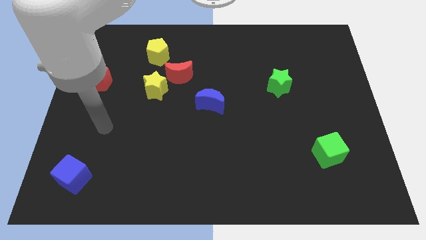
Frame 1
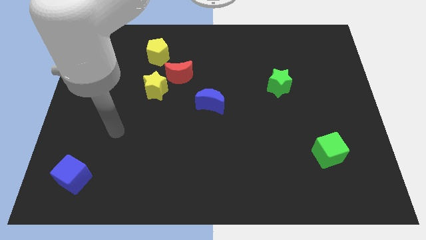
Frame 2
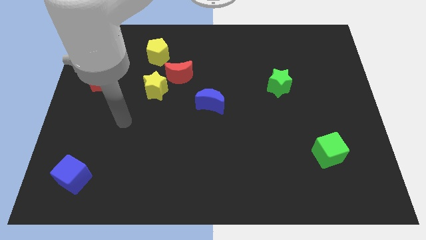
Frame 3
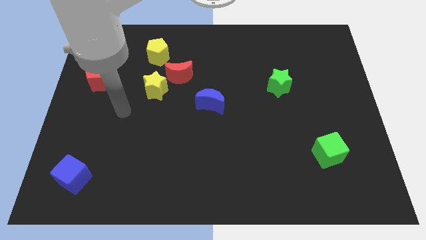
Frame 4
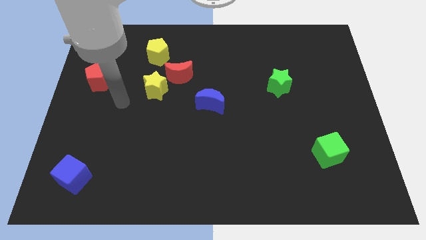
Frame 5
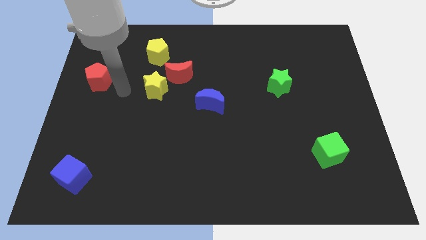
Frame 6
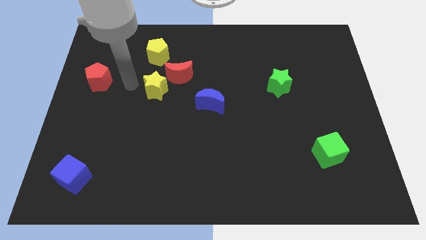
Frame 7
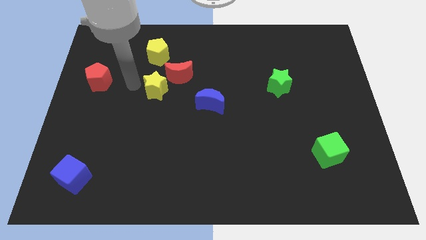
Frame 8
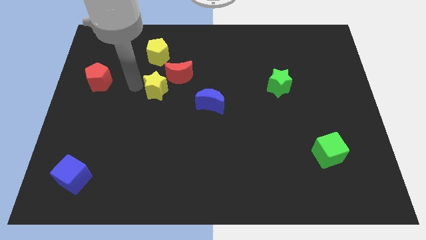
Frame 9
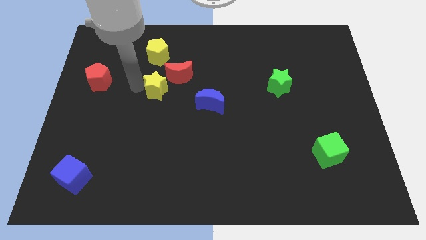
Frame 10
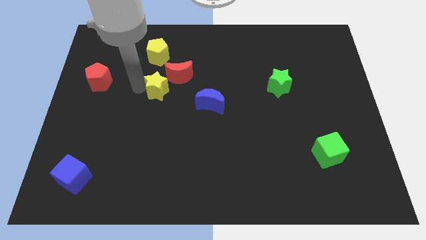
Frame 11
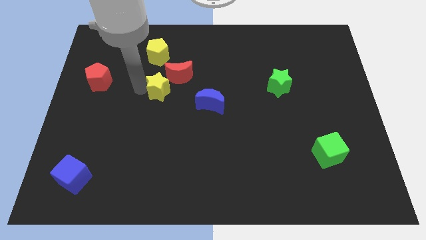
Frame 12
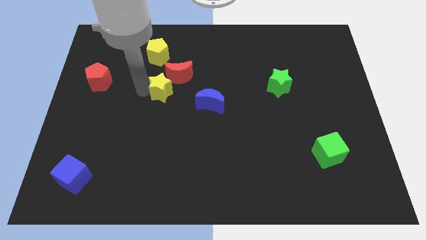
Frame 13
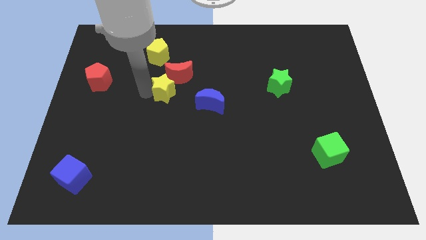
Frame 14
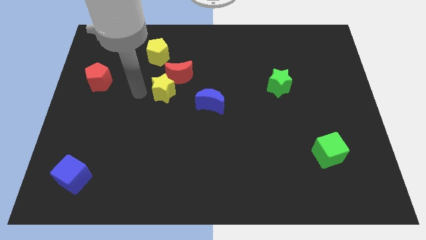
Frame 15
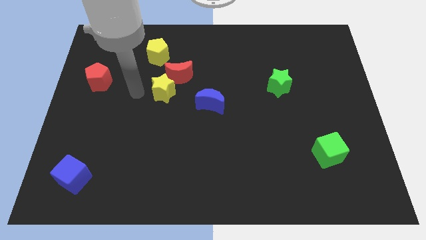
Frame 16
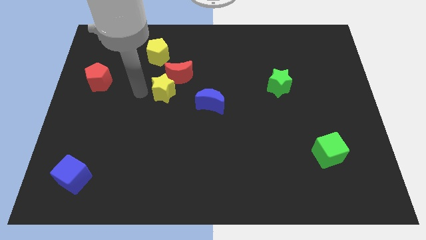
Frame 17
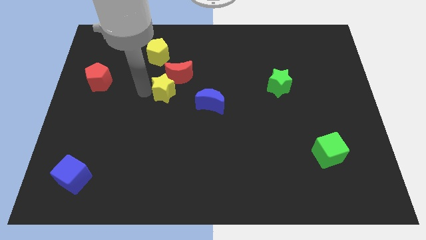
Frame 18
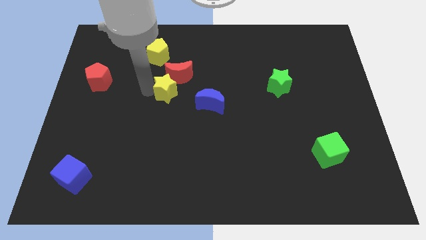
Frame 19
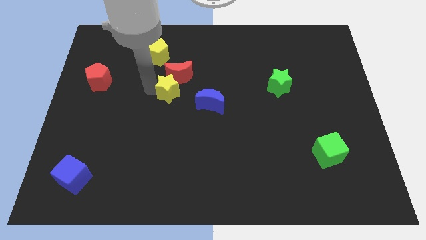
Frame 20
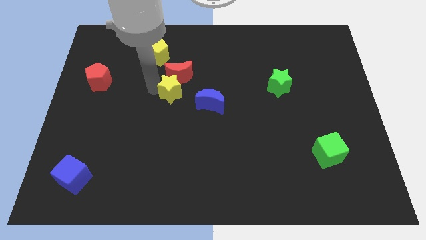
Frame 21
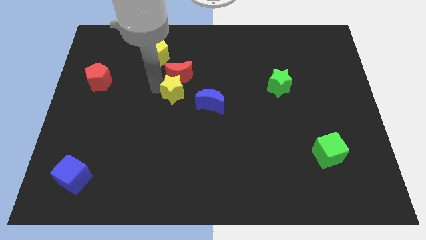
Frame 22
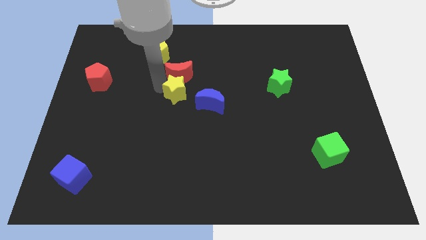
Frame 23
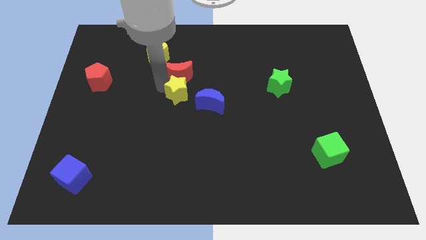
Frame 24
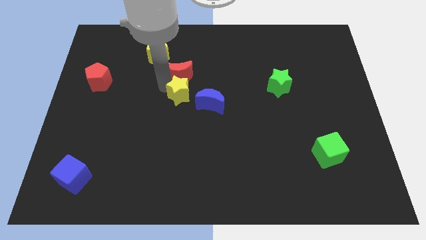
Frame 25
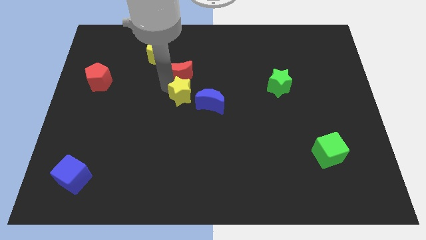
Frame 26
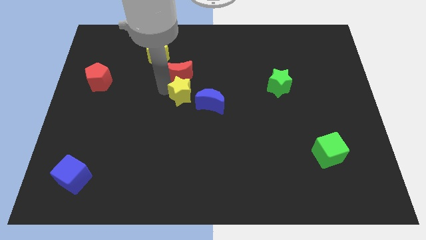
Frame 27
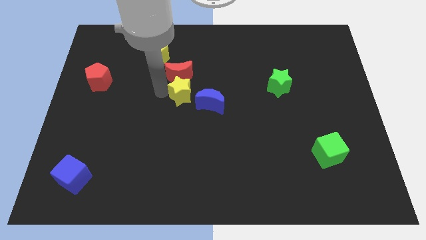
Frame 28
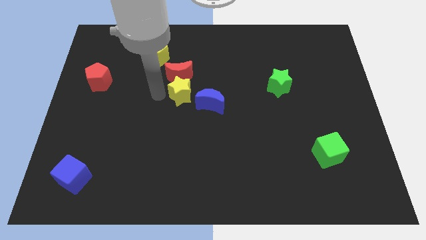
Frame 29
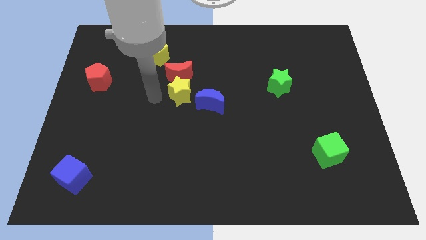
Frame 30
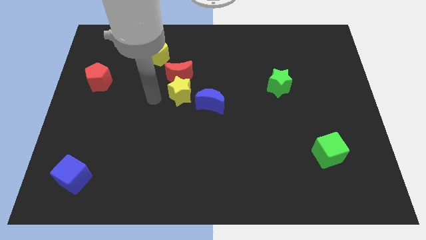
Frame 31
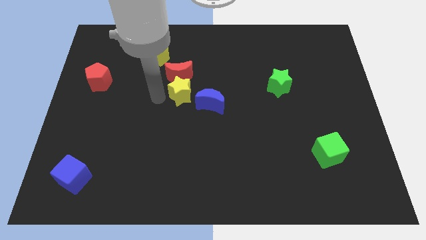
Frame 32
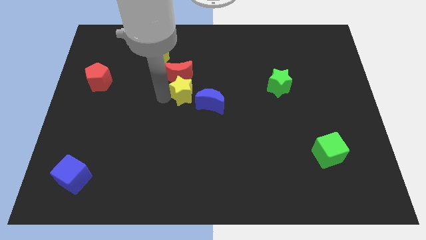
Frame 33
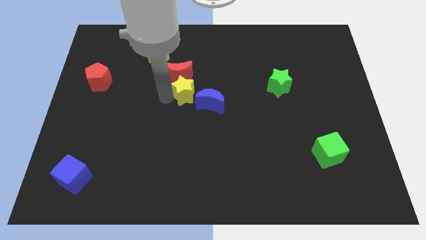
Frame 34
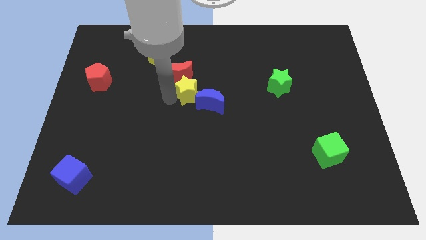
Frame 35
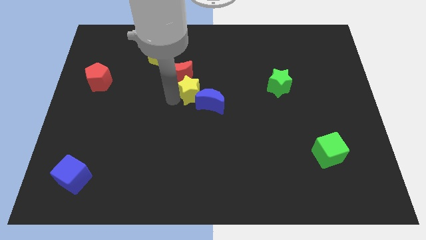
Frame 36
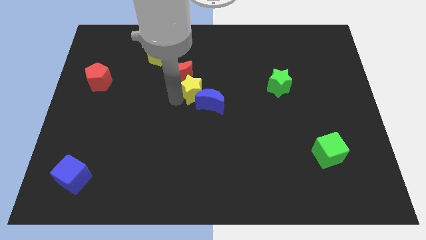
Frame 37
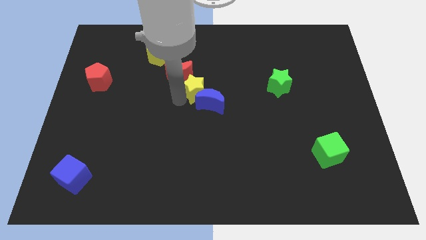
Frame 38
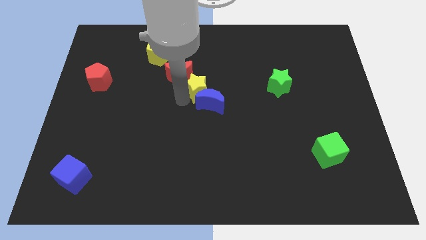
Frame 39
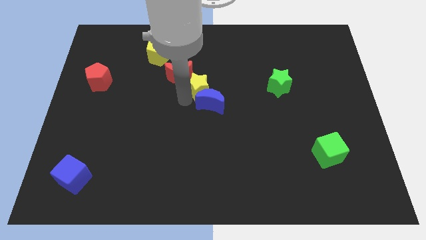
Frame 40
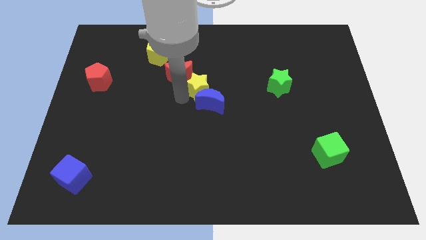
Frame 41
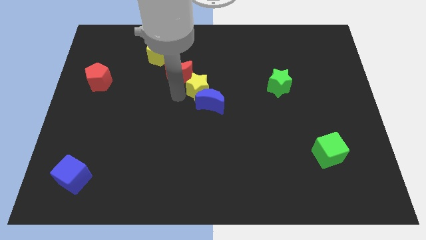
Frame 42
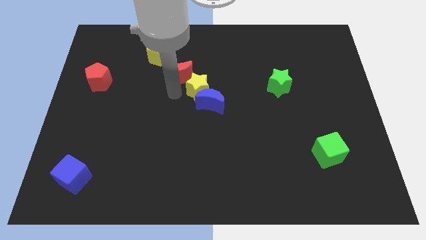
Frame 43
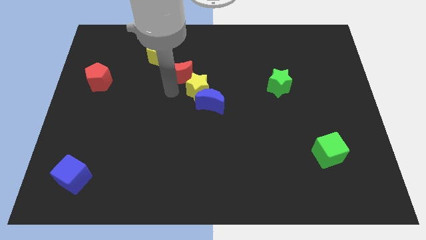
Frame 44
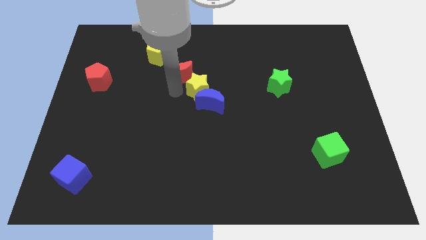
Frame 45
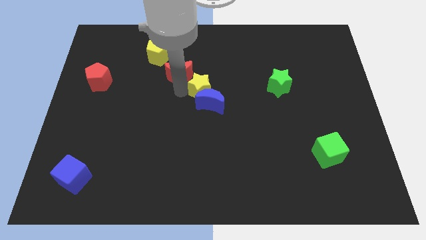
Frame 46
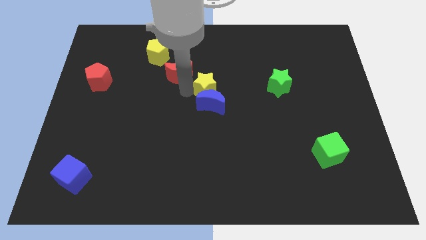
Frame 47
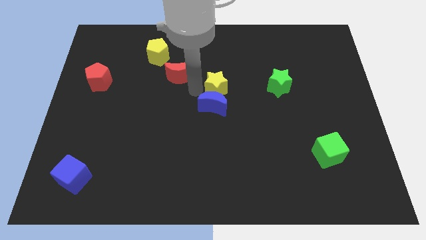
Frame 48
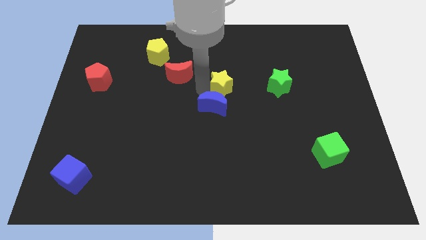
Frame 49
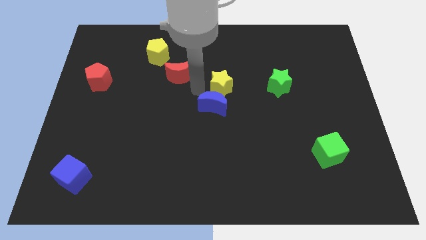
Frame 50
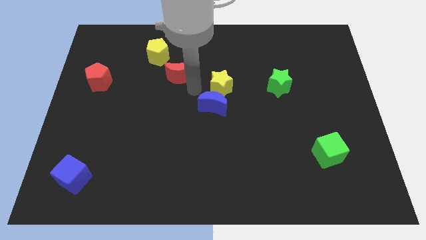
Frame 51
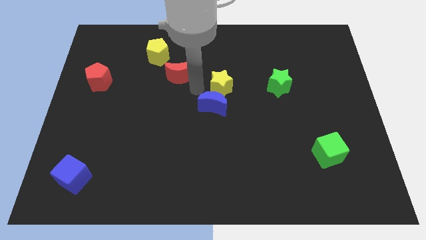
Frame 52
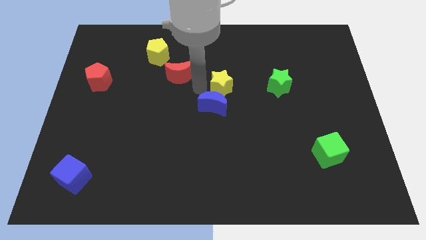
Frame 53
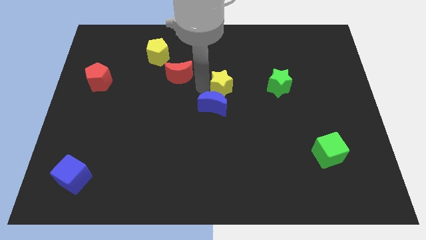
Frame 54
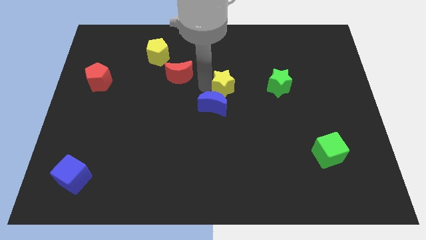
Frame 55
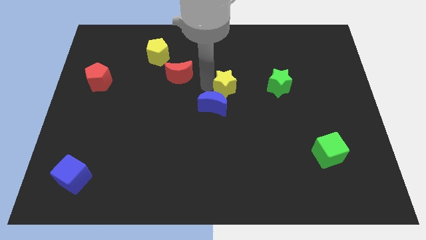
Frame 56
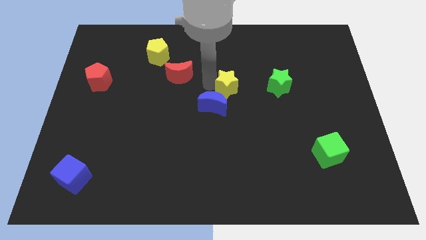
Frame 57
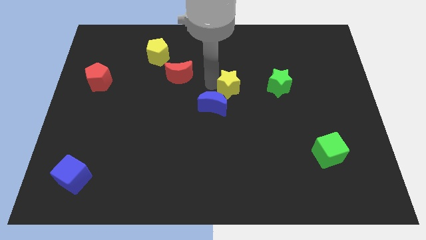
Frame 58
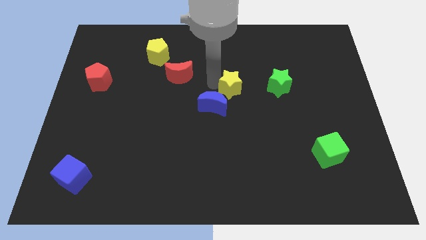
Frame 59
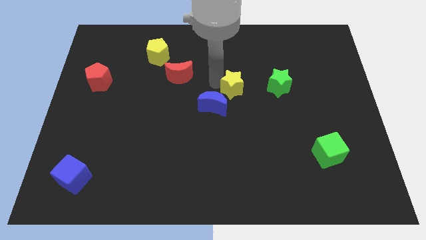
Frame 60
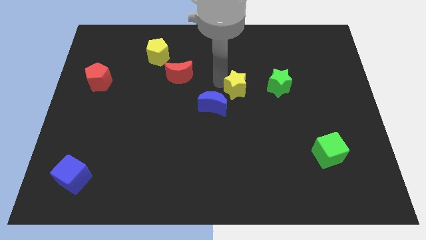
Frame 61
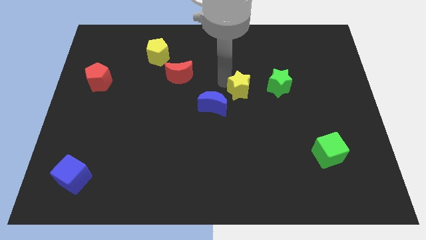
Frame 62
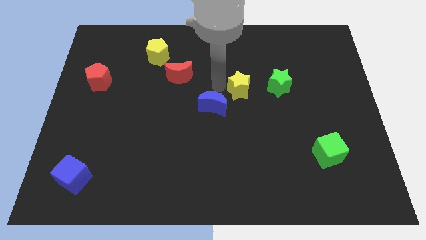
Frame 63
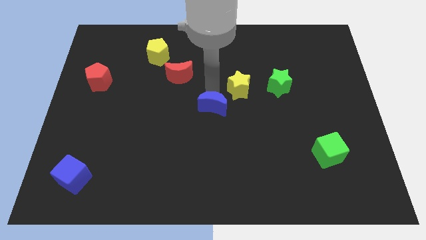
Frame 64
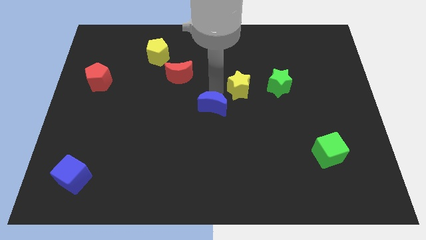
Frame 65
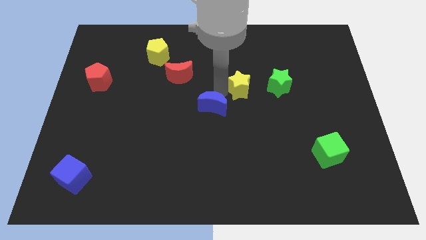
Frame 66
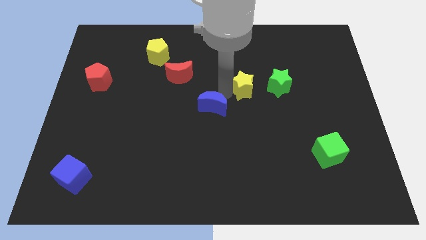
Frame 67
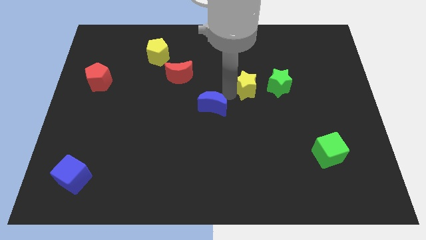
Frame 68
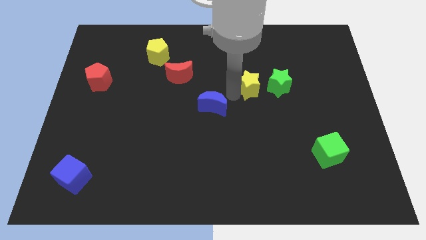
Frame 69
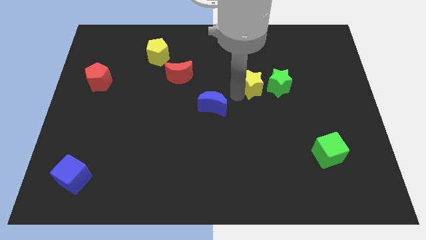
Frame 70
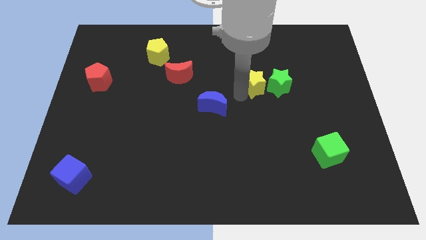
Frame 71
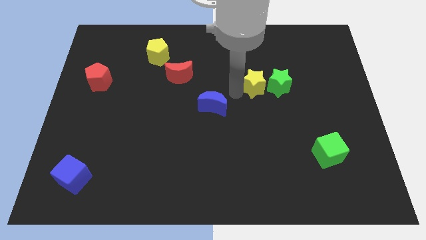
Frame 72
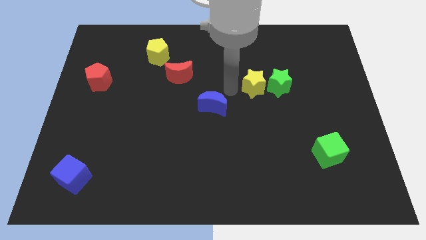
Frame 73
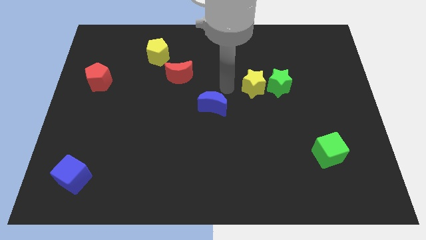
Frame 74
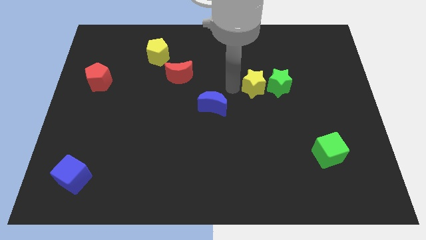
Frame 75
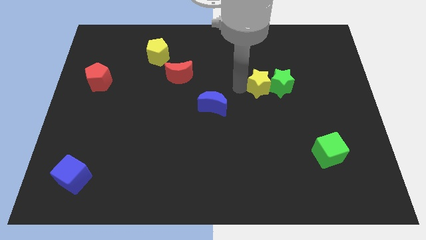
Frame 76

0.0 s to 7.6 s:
put the yellow star to the green star
